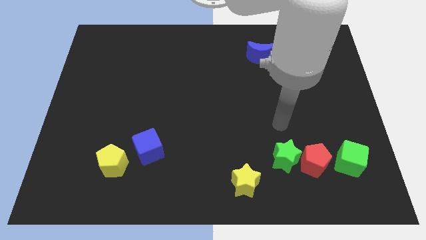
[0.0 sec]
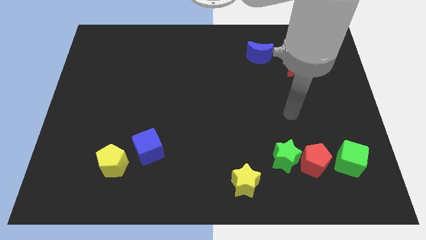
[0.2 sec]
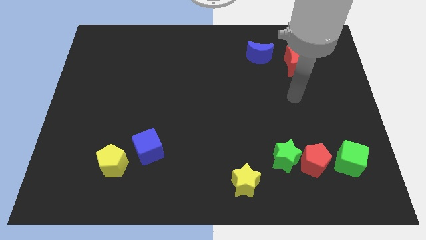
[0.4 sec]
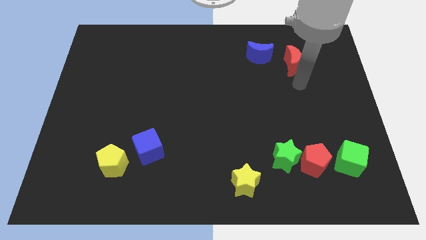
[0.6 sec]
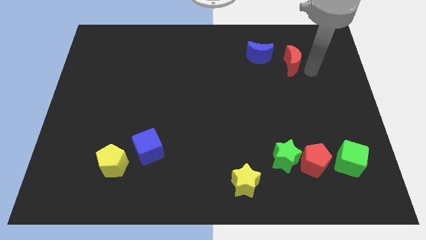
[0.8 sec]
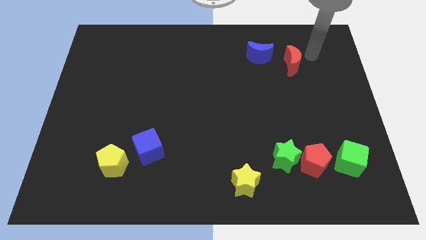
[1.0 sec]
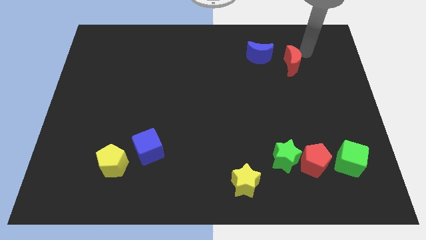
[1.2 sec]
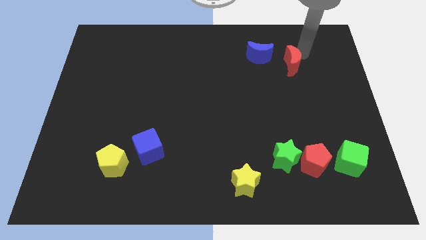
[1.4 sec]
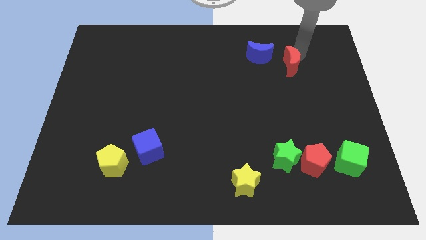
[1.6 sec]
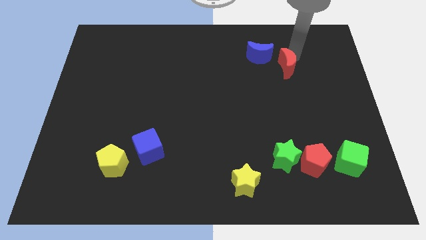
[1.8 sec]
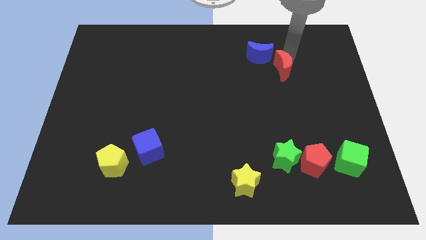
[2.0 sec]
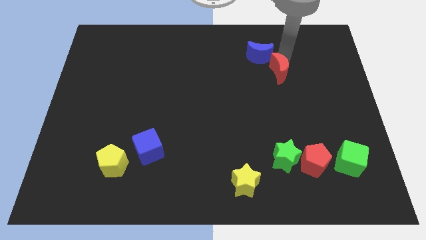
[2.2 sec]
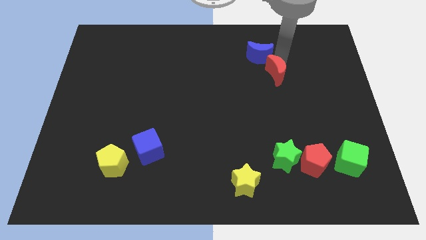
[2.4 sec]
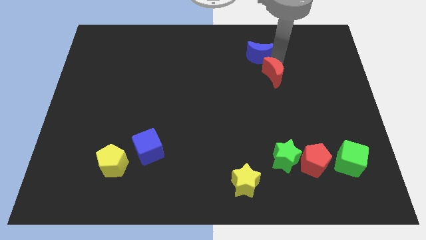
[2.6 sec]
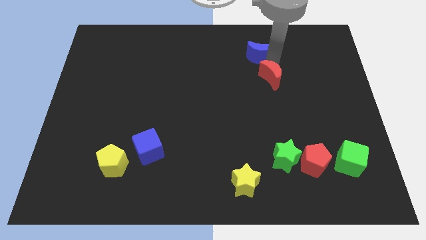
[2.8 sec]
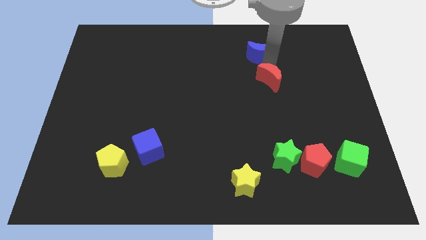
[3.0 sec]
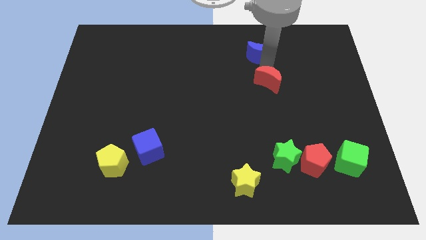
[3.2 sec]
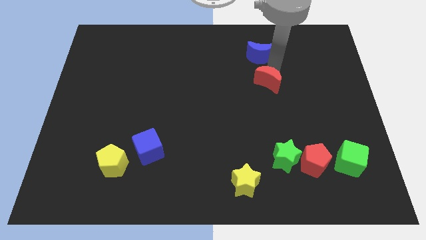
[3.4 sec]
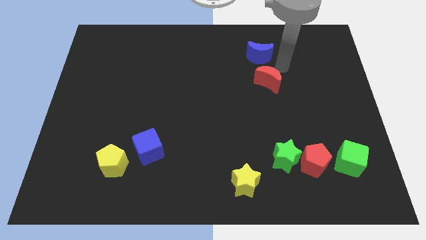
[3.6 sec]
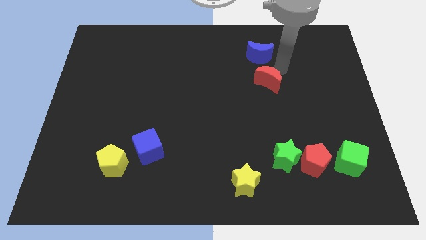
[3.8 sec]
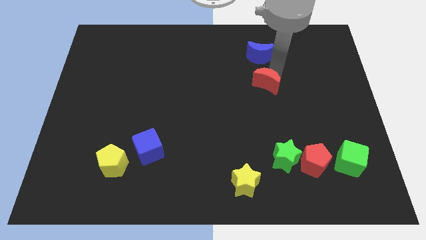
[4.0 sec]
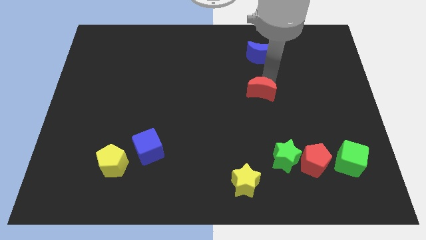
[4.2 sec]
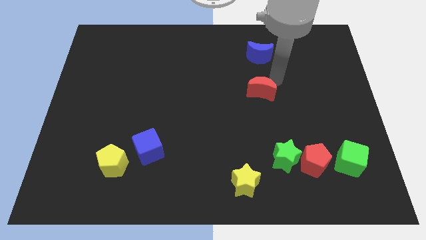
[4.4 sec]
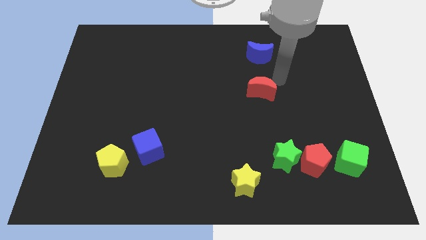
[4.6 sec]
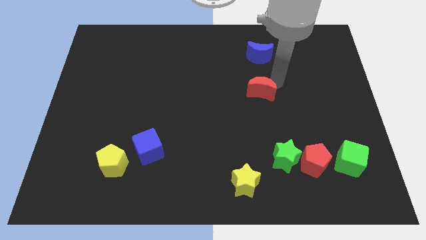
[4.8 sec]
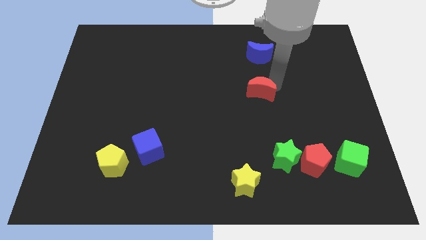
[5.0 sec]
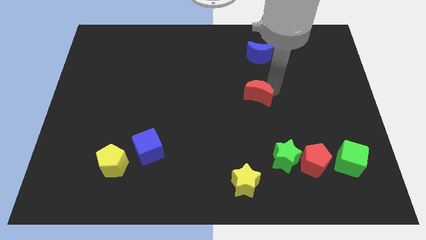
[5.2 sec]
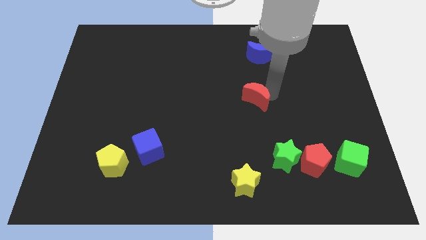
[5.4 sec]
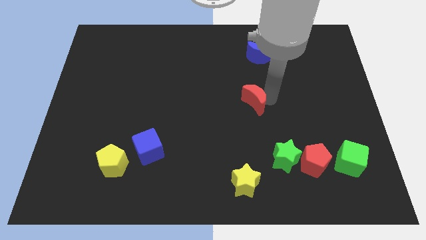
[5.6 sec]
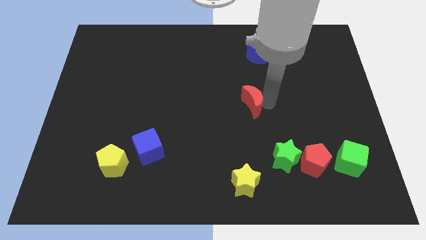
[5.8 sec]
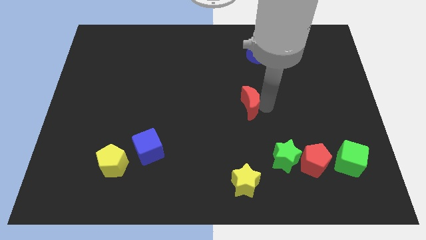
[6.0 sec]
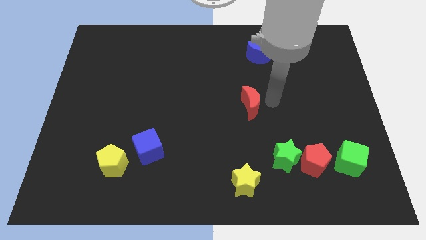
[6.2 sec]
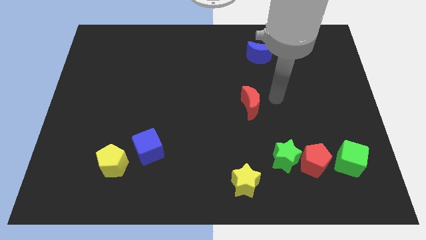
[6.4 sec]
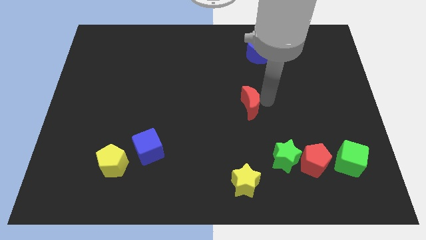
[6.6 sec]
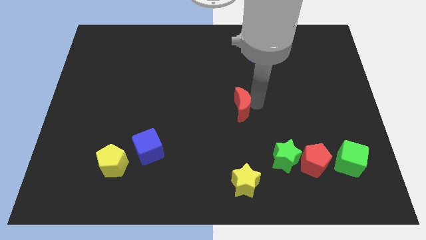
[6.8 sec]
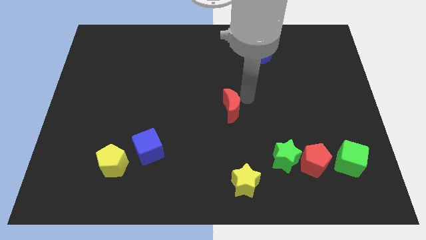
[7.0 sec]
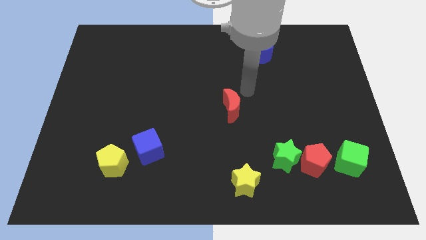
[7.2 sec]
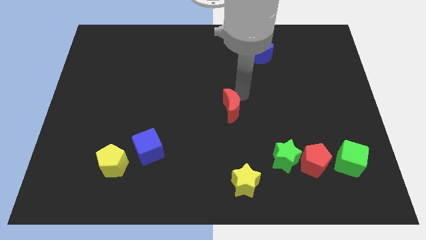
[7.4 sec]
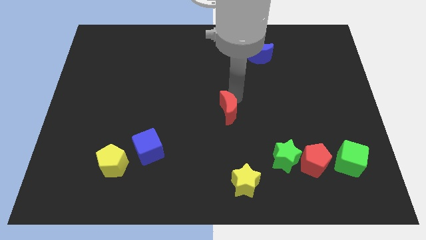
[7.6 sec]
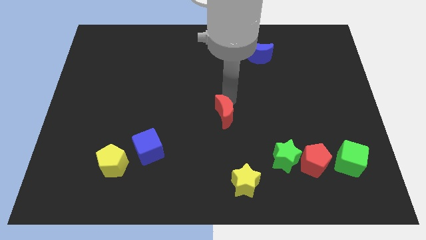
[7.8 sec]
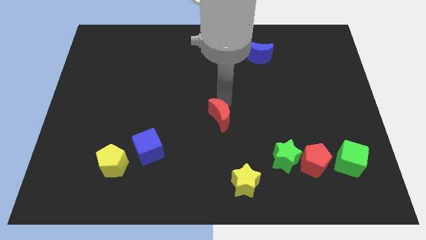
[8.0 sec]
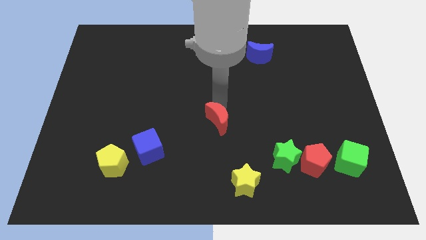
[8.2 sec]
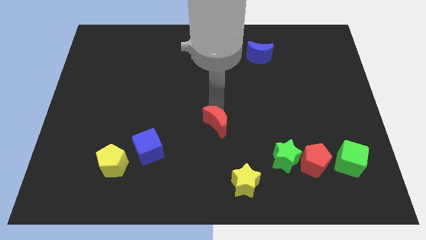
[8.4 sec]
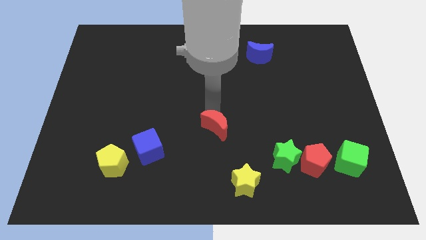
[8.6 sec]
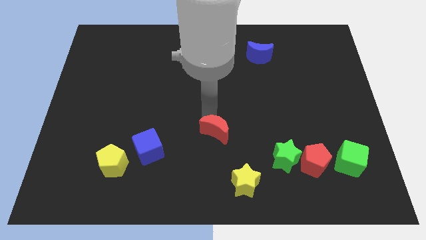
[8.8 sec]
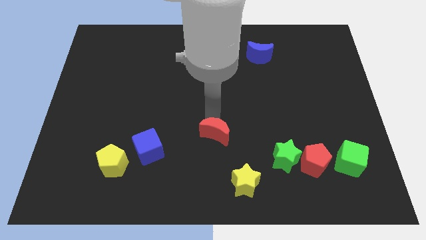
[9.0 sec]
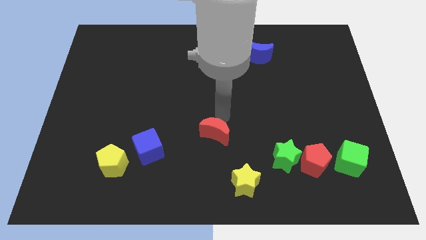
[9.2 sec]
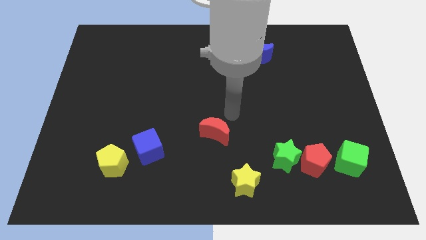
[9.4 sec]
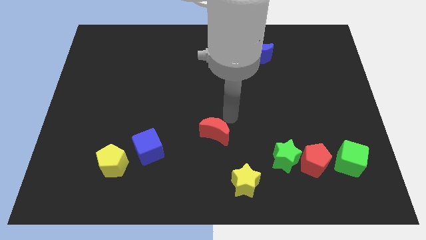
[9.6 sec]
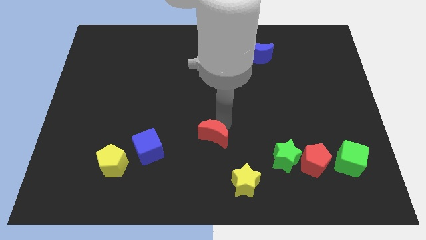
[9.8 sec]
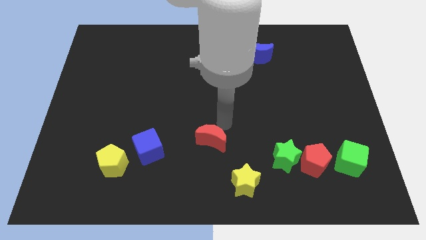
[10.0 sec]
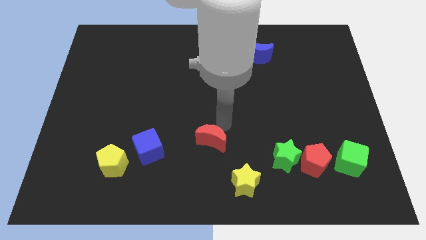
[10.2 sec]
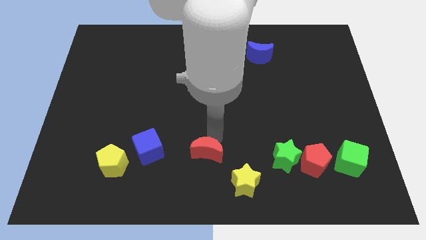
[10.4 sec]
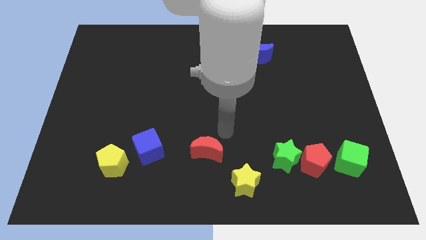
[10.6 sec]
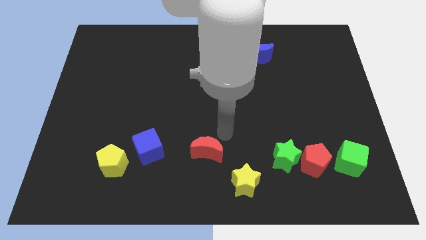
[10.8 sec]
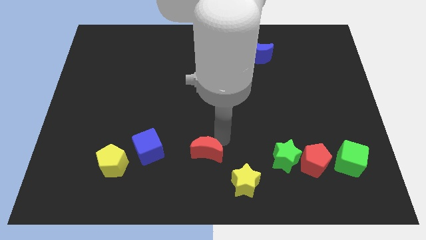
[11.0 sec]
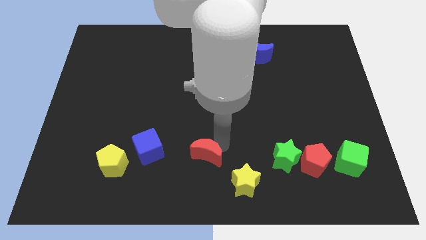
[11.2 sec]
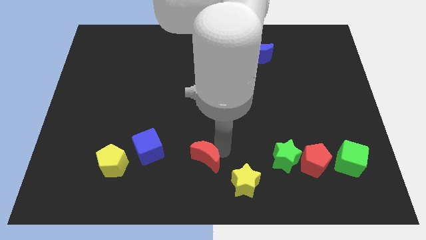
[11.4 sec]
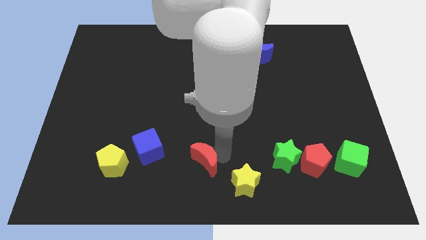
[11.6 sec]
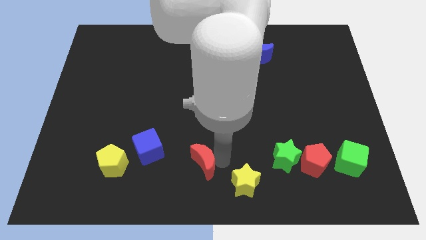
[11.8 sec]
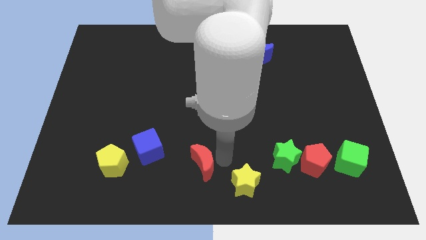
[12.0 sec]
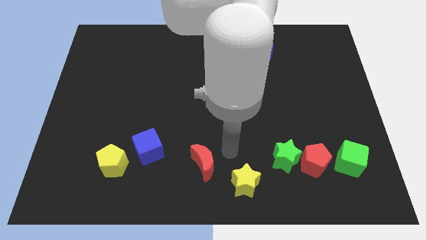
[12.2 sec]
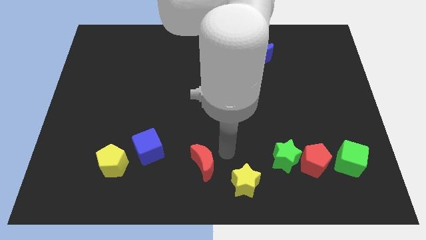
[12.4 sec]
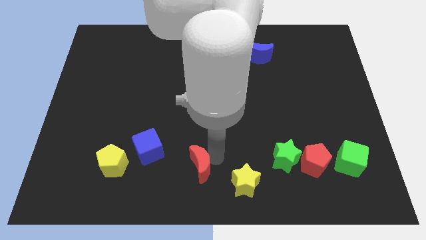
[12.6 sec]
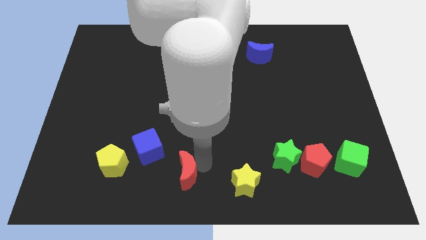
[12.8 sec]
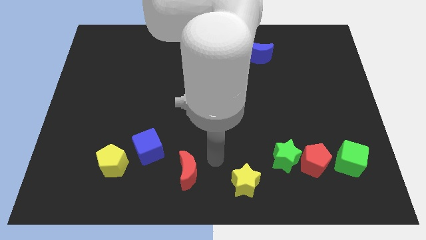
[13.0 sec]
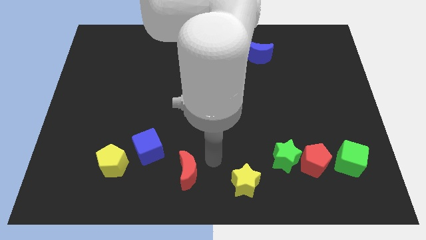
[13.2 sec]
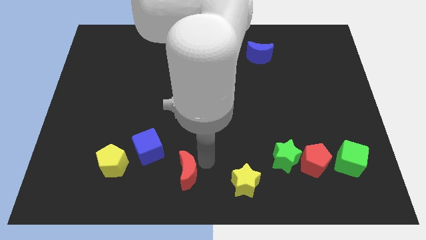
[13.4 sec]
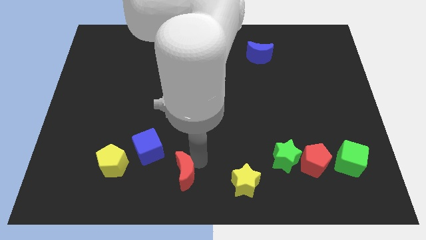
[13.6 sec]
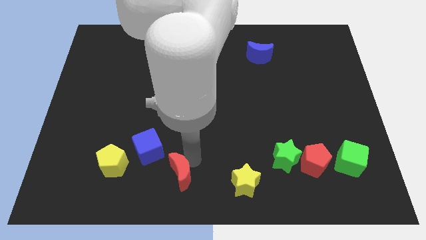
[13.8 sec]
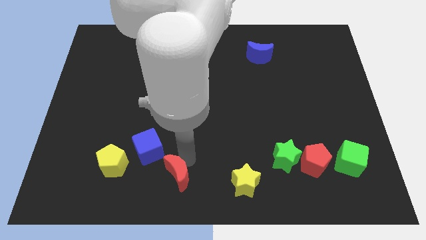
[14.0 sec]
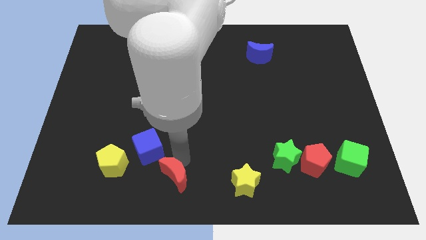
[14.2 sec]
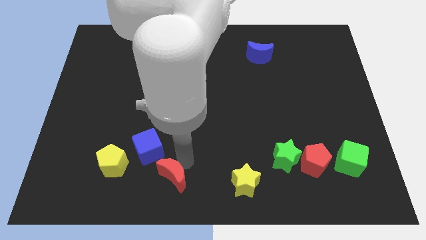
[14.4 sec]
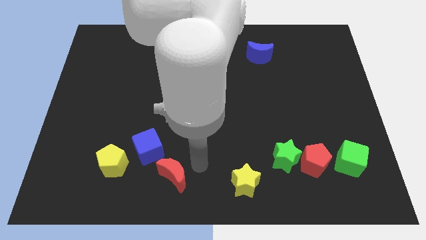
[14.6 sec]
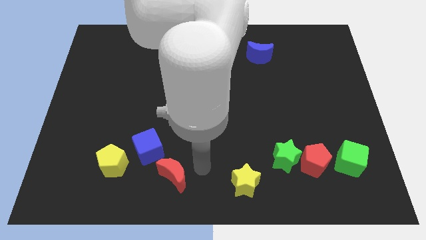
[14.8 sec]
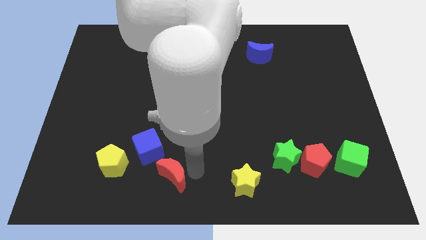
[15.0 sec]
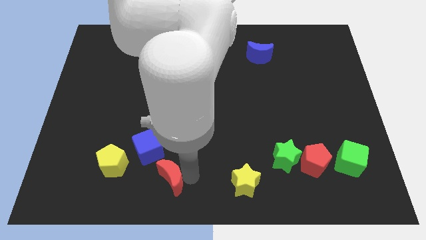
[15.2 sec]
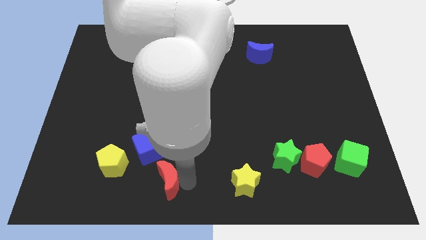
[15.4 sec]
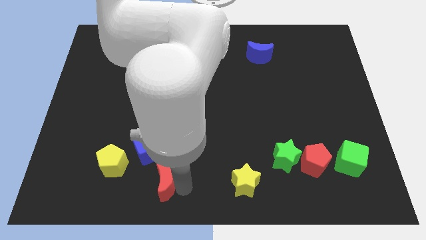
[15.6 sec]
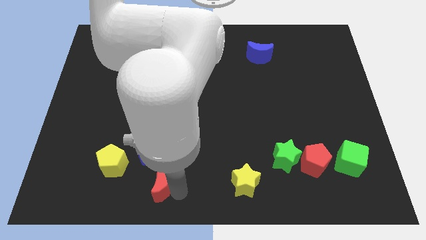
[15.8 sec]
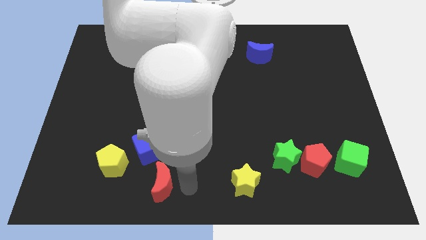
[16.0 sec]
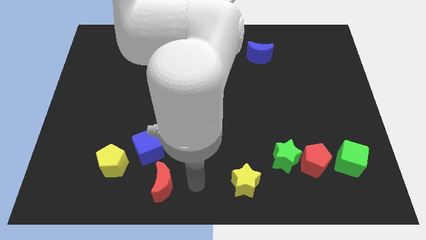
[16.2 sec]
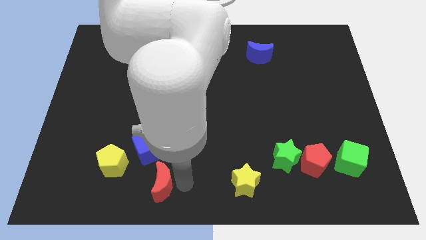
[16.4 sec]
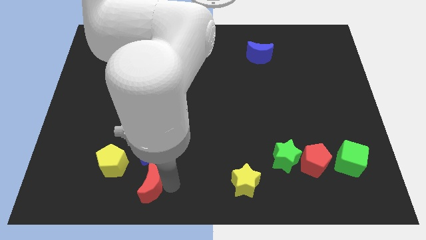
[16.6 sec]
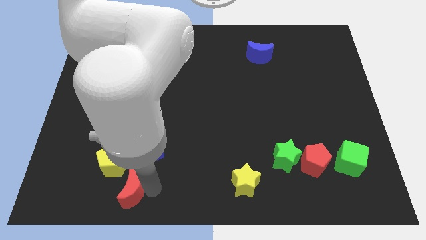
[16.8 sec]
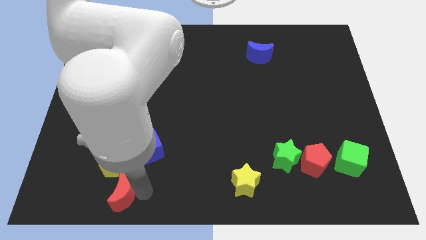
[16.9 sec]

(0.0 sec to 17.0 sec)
slide the red moon to the bottom left of the blue cube
